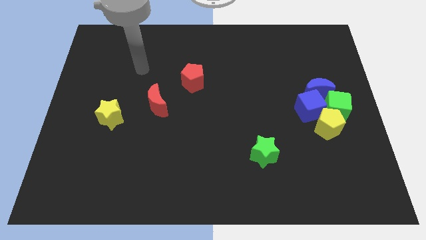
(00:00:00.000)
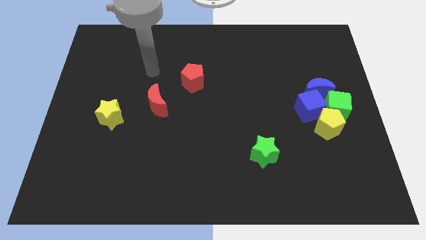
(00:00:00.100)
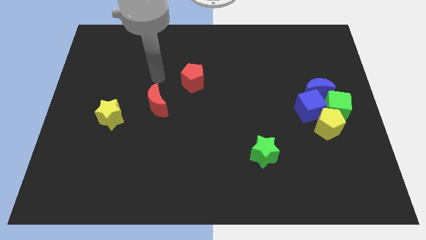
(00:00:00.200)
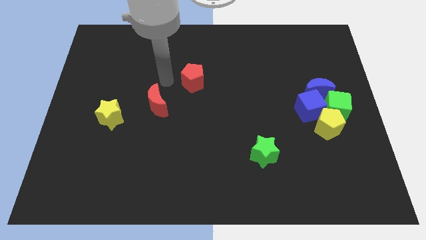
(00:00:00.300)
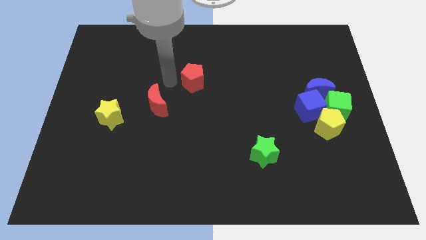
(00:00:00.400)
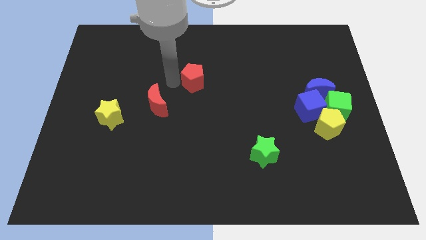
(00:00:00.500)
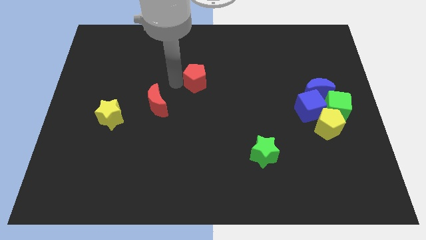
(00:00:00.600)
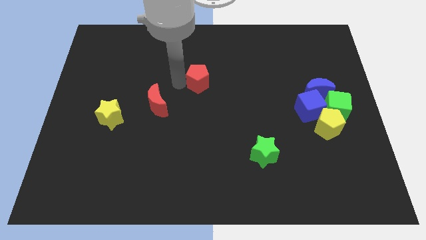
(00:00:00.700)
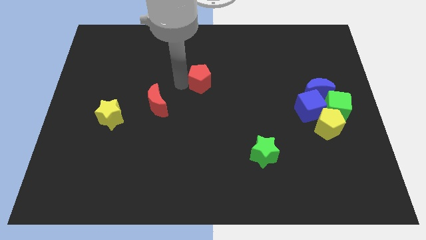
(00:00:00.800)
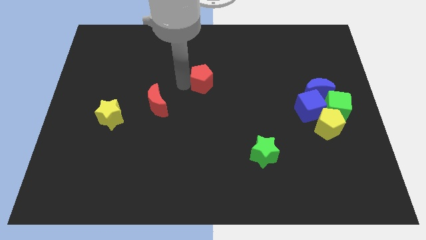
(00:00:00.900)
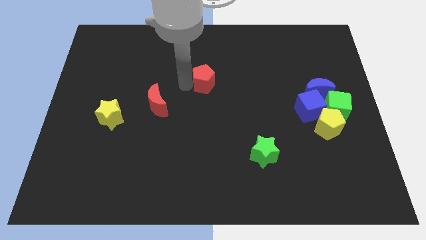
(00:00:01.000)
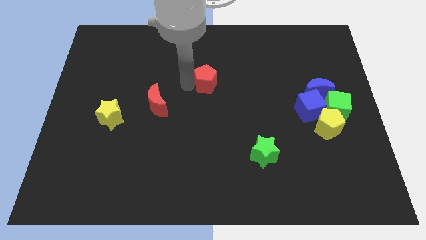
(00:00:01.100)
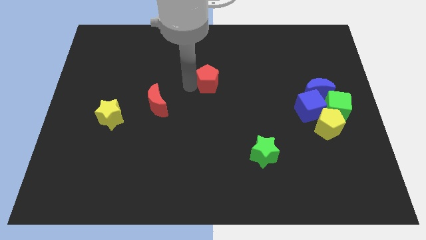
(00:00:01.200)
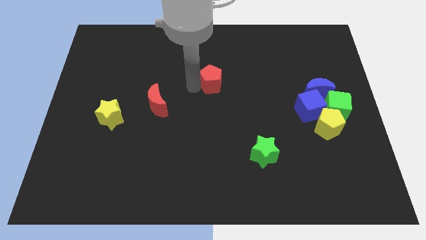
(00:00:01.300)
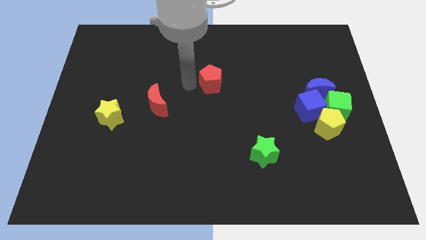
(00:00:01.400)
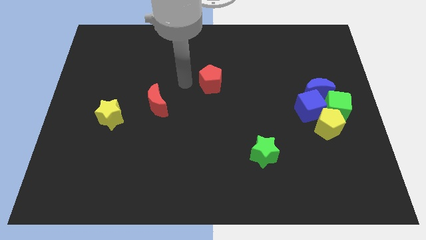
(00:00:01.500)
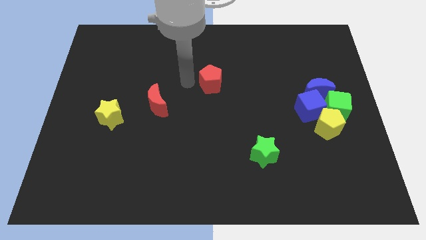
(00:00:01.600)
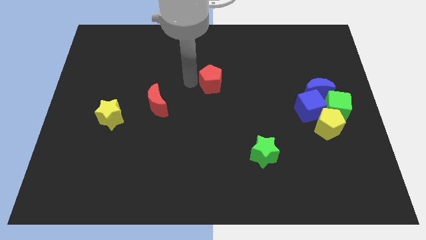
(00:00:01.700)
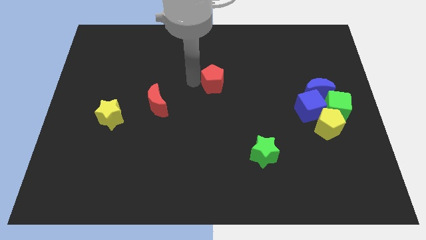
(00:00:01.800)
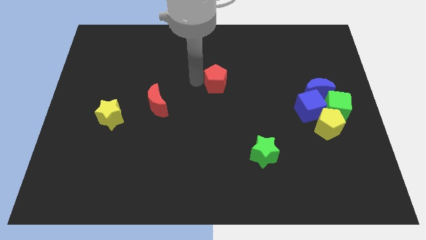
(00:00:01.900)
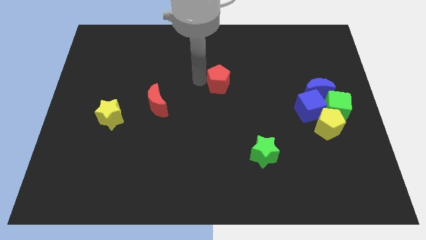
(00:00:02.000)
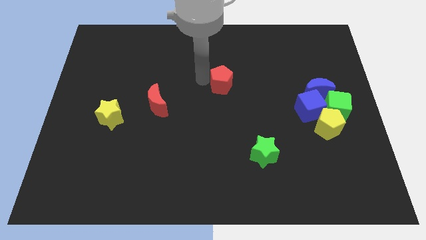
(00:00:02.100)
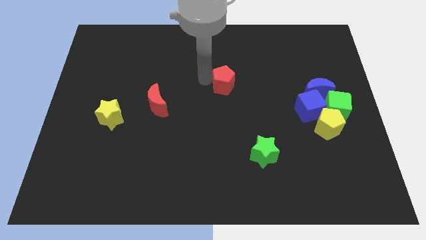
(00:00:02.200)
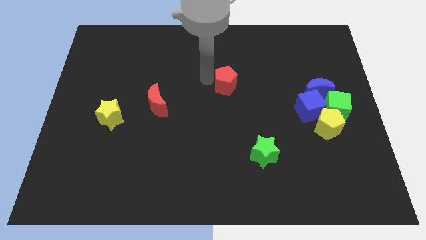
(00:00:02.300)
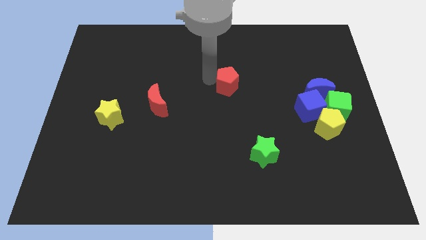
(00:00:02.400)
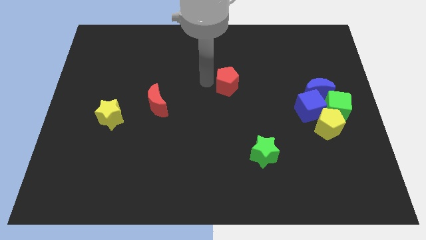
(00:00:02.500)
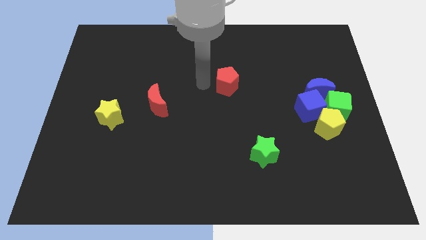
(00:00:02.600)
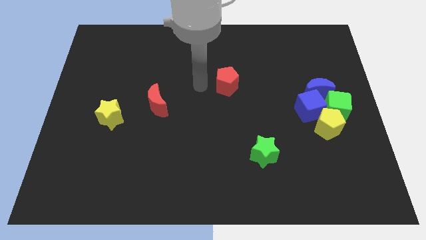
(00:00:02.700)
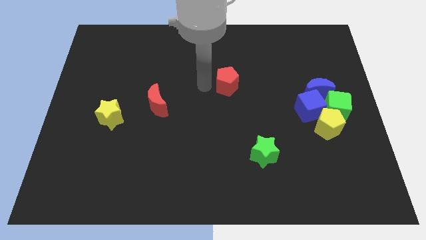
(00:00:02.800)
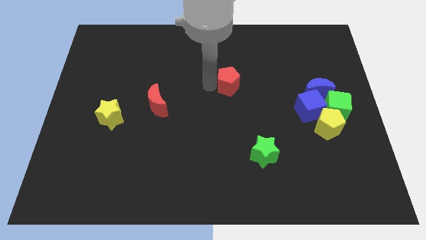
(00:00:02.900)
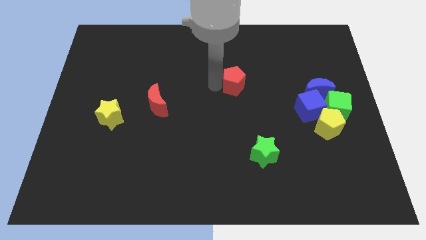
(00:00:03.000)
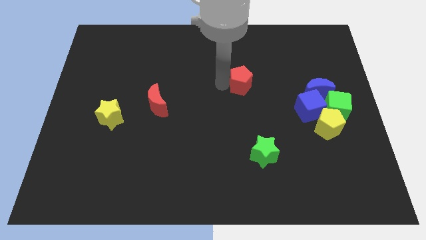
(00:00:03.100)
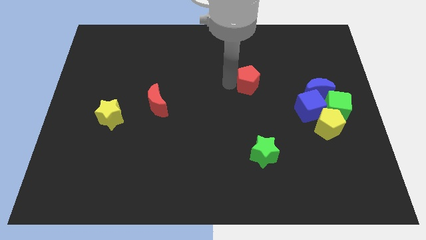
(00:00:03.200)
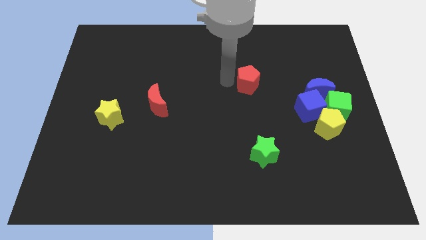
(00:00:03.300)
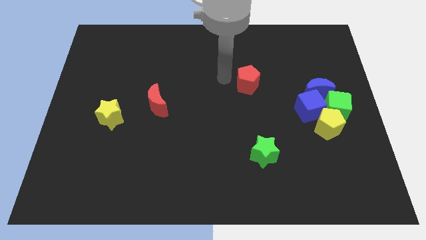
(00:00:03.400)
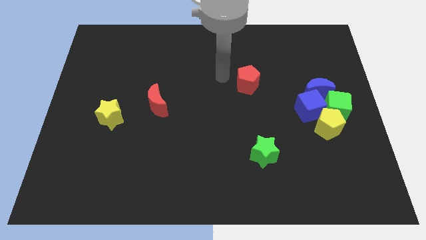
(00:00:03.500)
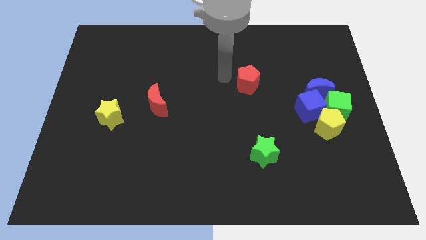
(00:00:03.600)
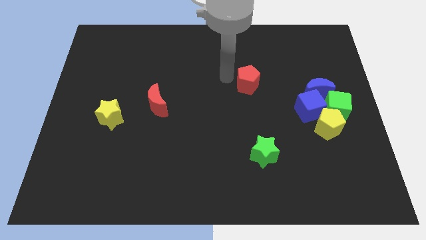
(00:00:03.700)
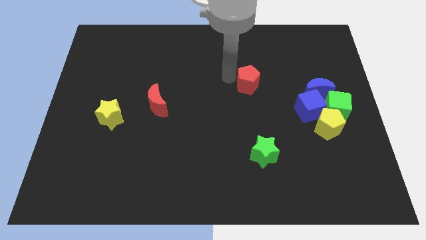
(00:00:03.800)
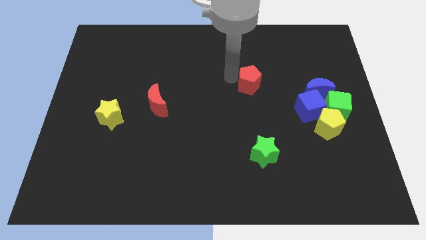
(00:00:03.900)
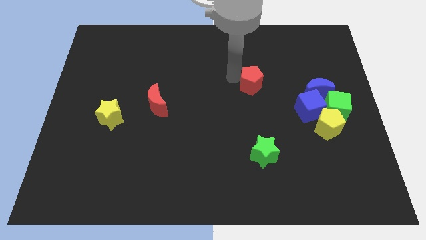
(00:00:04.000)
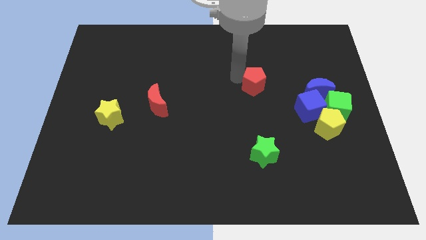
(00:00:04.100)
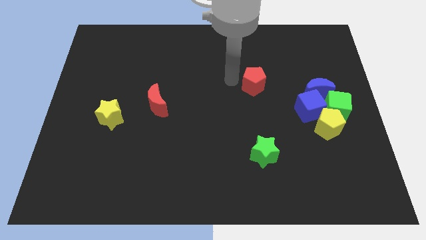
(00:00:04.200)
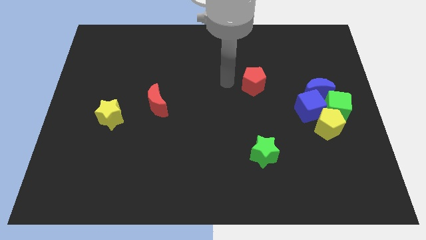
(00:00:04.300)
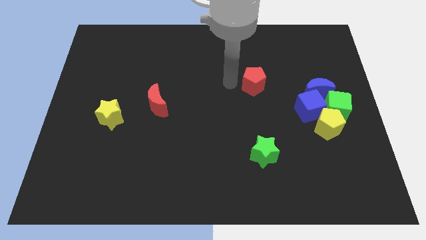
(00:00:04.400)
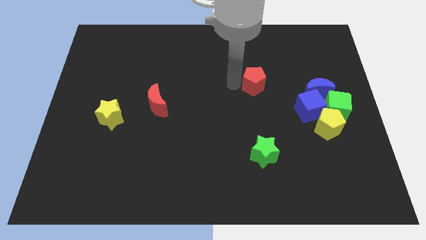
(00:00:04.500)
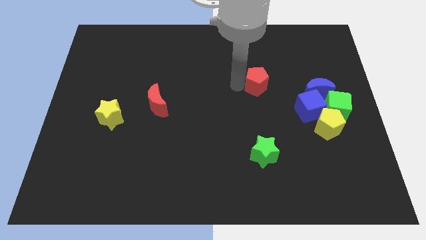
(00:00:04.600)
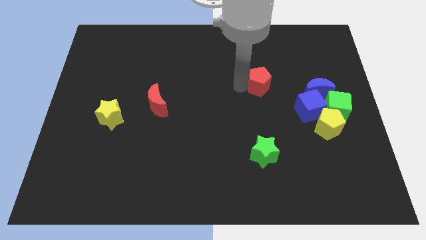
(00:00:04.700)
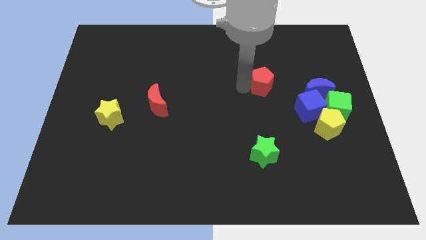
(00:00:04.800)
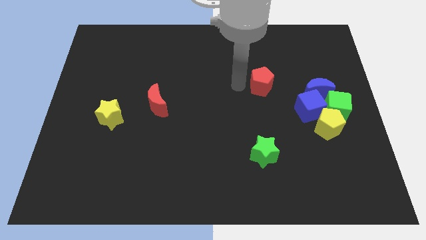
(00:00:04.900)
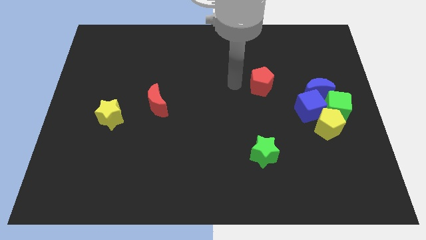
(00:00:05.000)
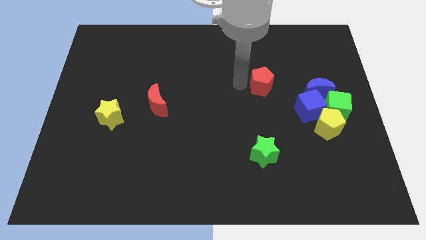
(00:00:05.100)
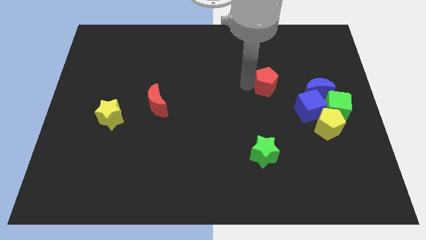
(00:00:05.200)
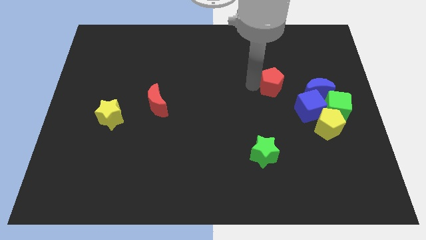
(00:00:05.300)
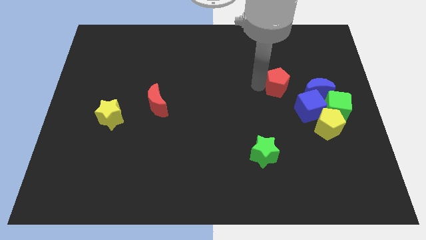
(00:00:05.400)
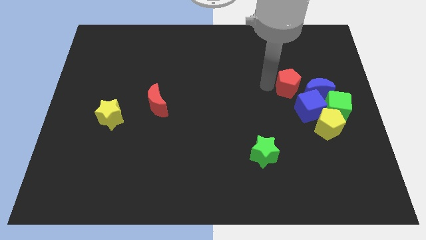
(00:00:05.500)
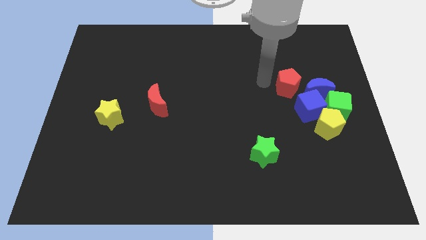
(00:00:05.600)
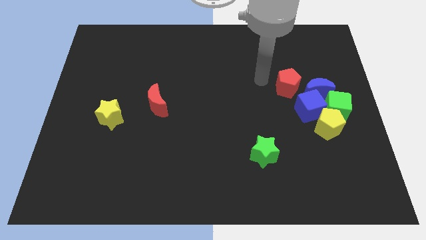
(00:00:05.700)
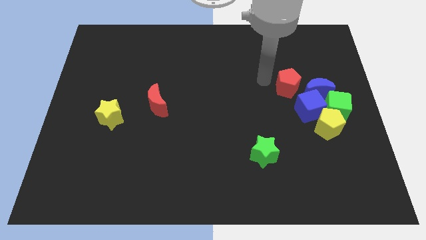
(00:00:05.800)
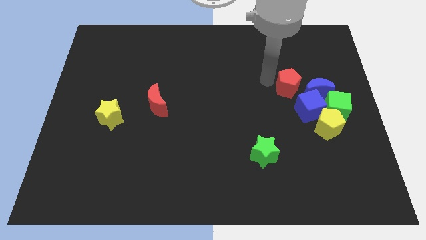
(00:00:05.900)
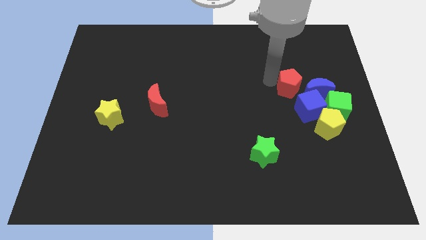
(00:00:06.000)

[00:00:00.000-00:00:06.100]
push the red pentagon to the top left of the green cube
